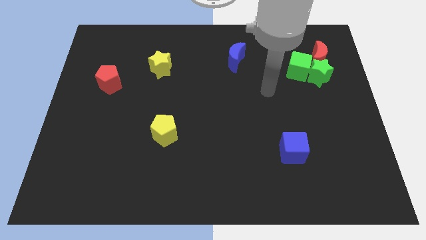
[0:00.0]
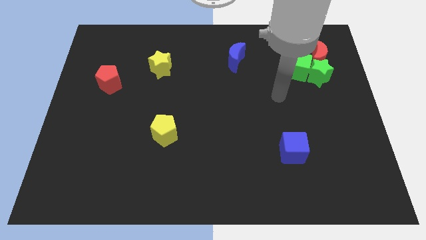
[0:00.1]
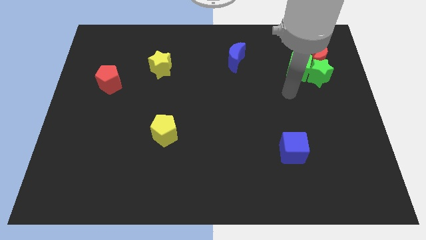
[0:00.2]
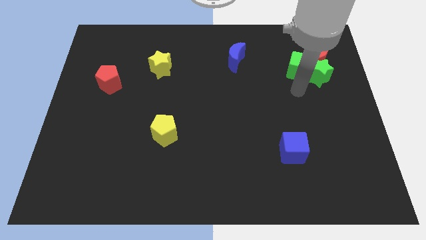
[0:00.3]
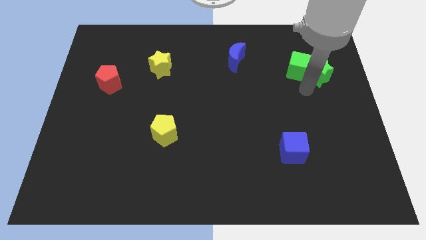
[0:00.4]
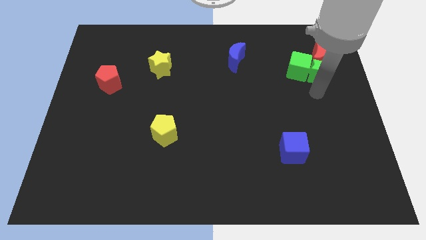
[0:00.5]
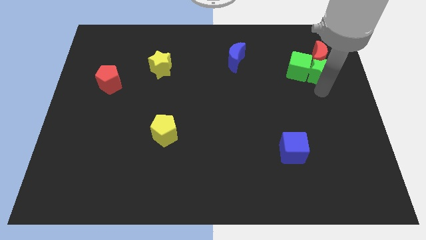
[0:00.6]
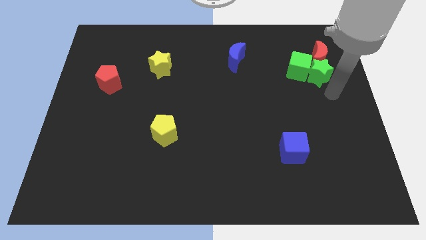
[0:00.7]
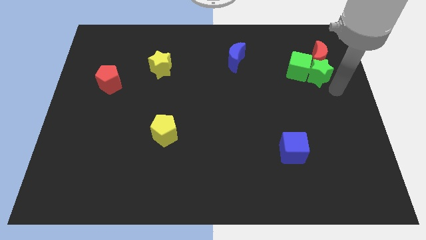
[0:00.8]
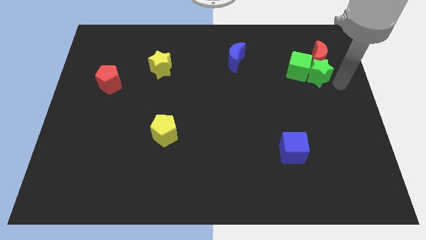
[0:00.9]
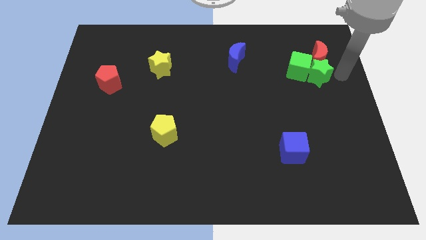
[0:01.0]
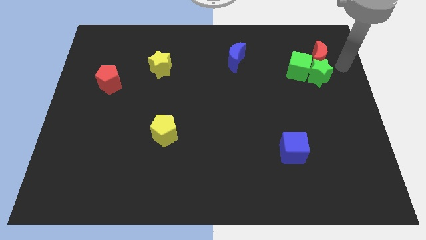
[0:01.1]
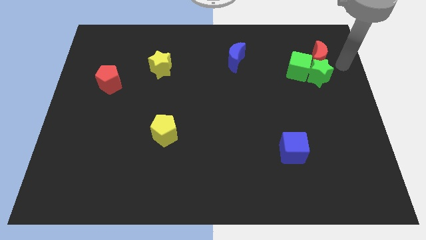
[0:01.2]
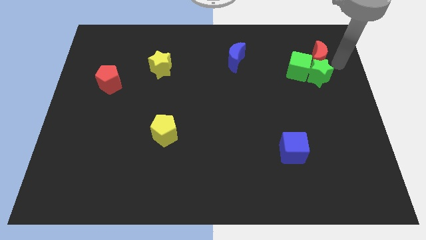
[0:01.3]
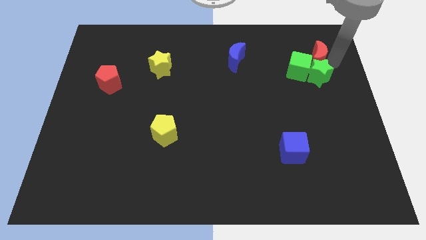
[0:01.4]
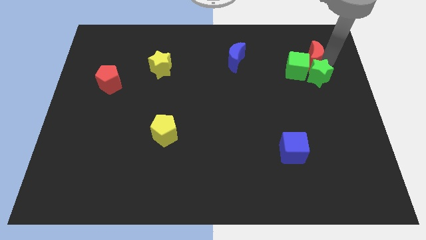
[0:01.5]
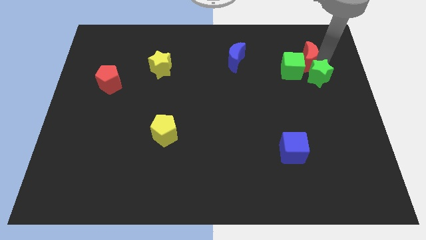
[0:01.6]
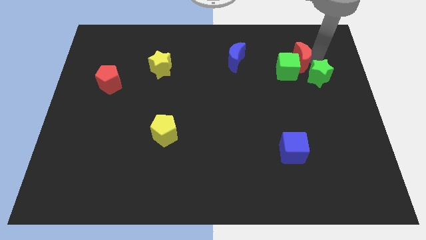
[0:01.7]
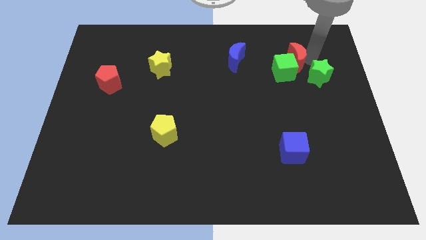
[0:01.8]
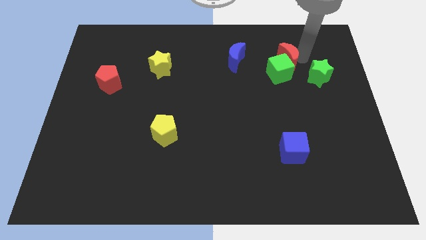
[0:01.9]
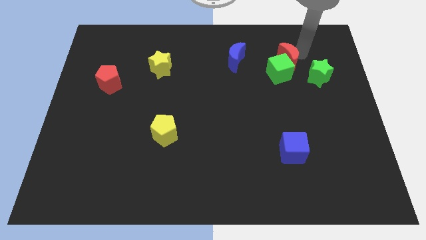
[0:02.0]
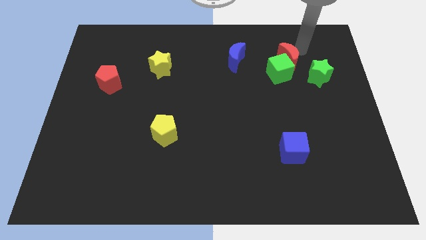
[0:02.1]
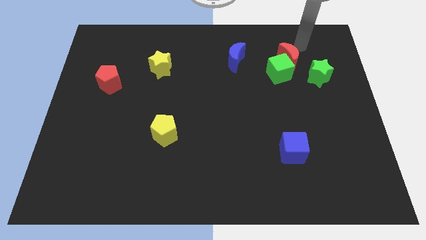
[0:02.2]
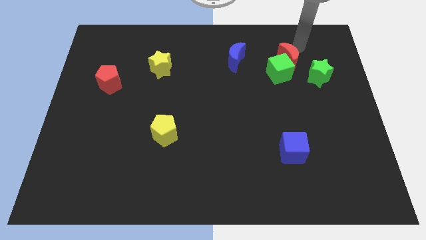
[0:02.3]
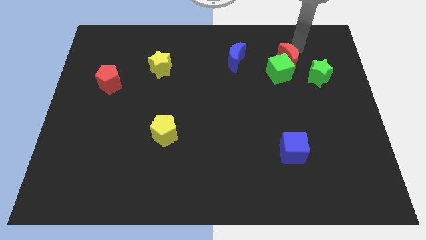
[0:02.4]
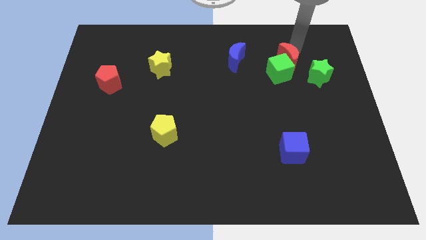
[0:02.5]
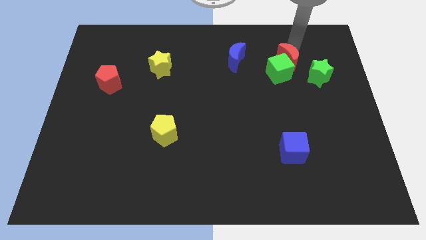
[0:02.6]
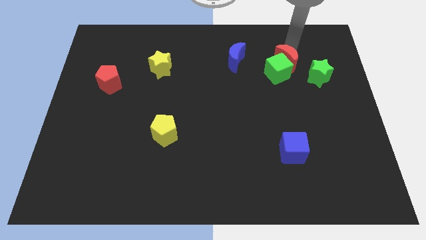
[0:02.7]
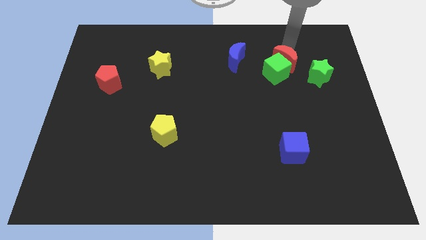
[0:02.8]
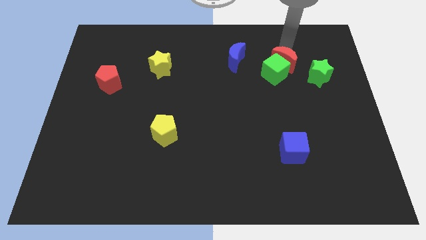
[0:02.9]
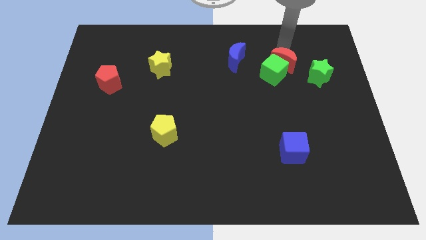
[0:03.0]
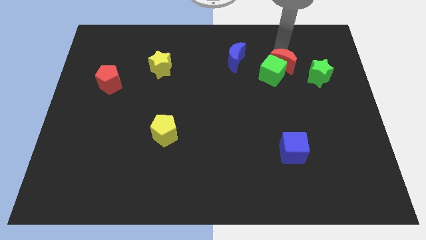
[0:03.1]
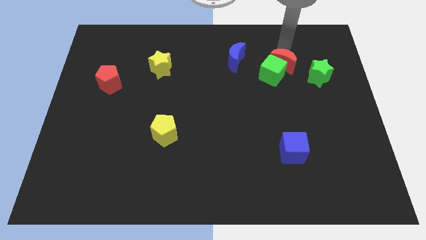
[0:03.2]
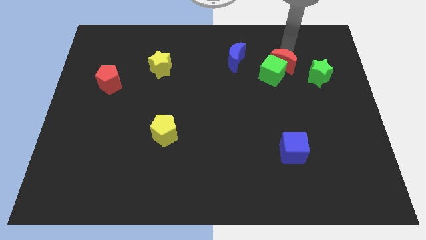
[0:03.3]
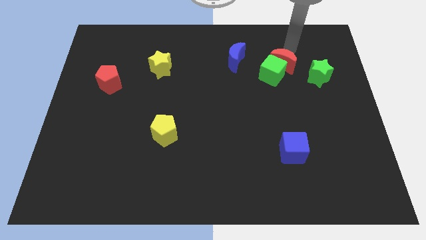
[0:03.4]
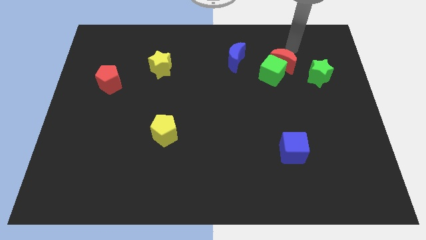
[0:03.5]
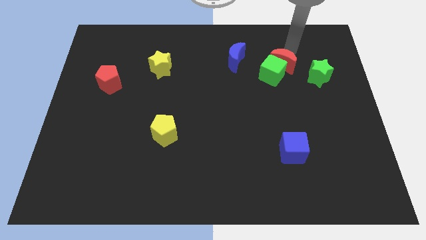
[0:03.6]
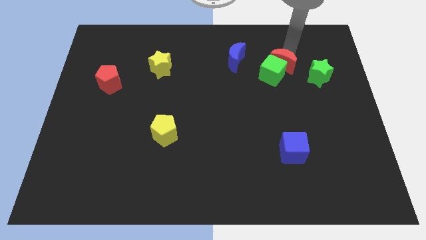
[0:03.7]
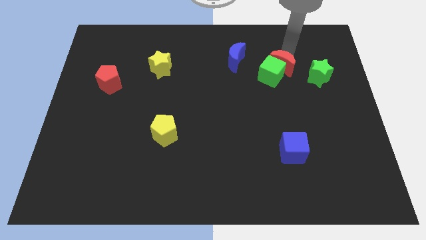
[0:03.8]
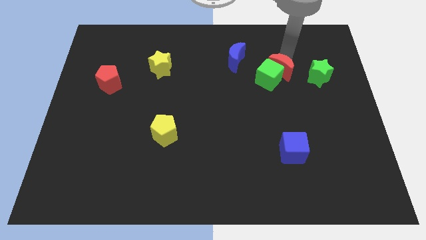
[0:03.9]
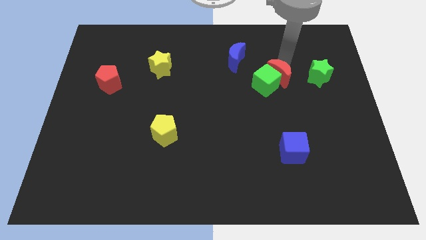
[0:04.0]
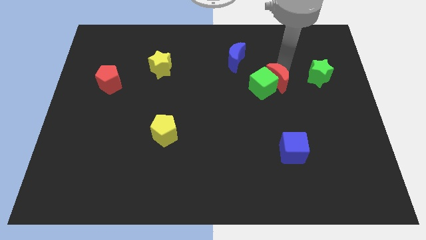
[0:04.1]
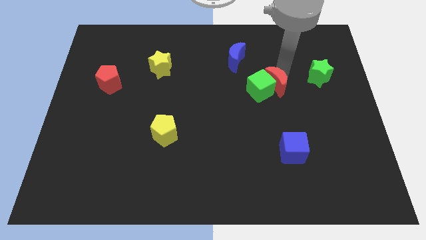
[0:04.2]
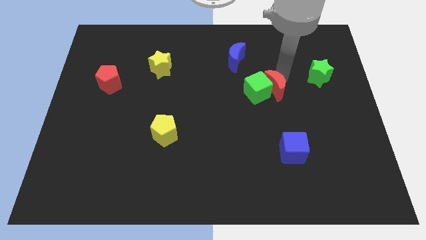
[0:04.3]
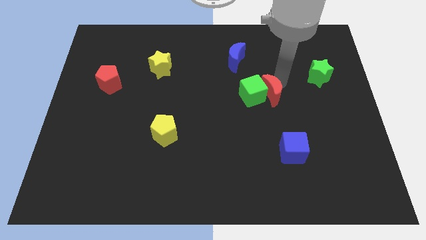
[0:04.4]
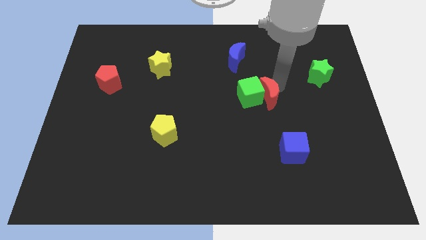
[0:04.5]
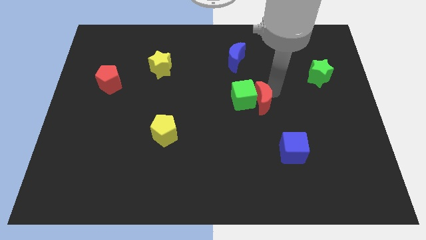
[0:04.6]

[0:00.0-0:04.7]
move the red moon diagonally down and to the left

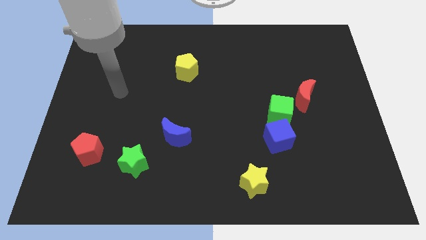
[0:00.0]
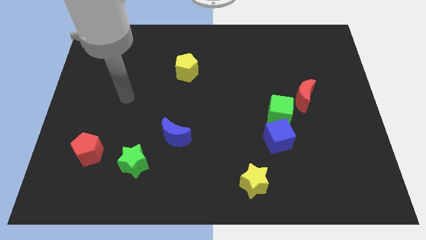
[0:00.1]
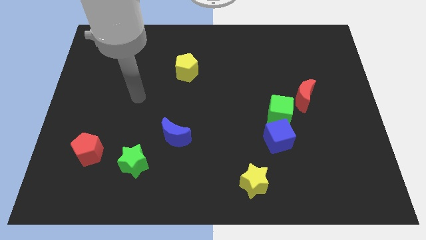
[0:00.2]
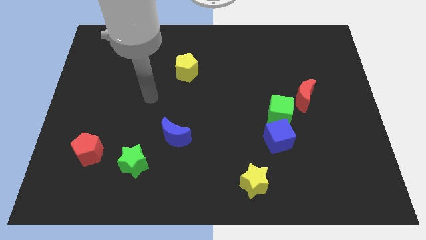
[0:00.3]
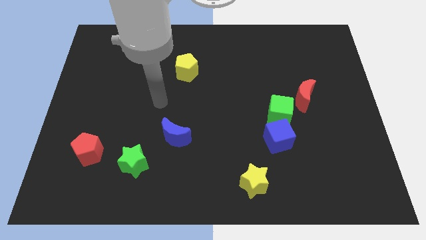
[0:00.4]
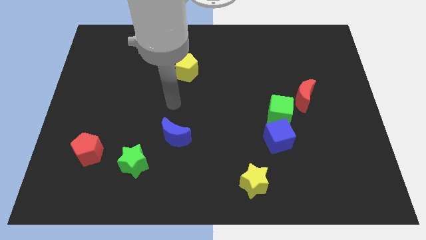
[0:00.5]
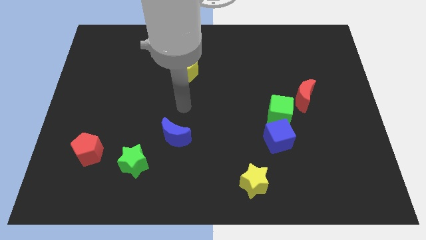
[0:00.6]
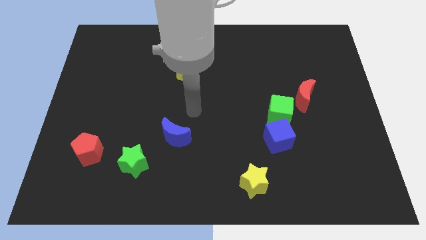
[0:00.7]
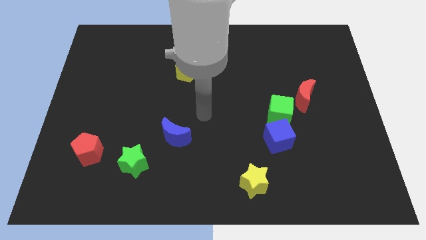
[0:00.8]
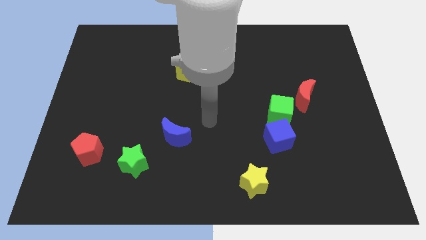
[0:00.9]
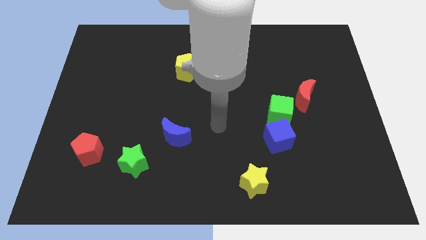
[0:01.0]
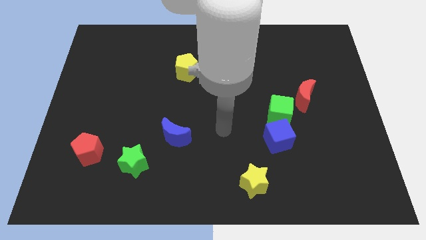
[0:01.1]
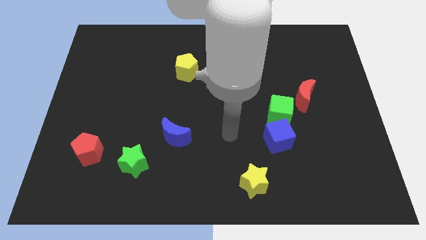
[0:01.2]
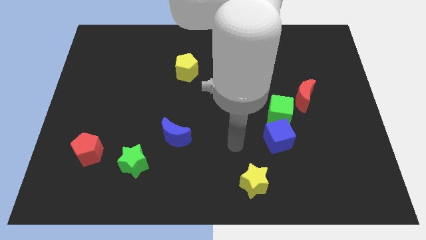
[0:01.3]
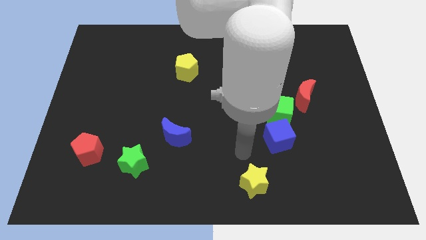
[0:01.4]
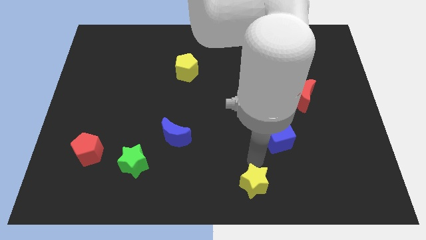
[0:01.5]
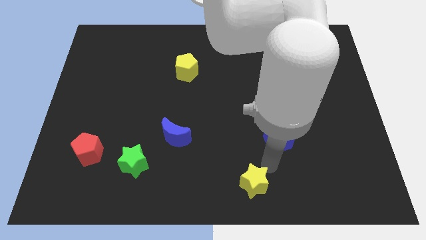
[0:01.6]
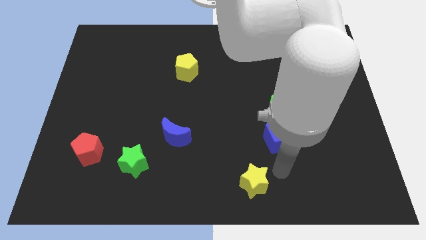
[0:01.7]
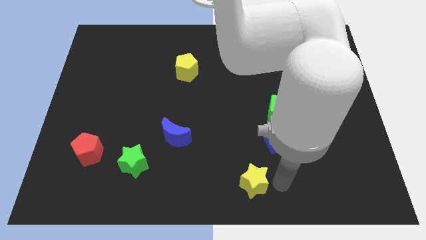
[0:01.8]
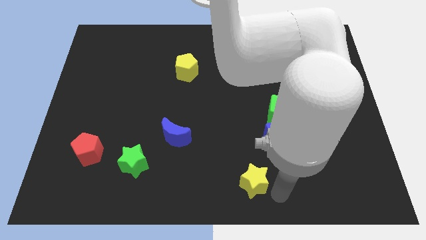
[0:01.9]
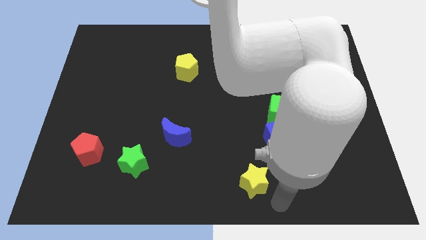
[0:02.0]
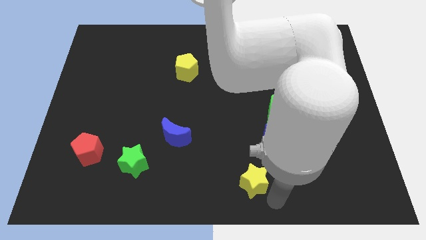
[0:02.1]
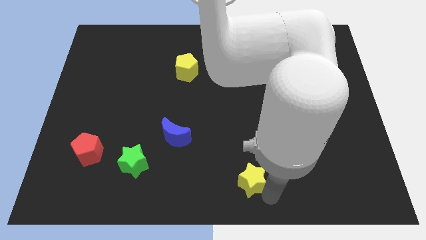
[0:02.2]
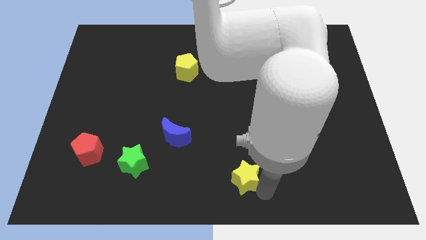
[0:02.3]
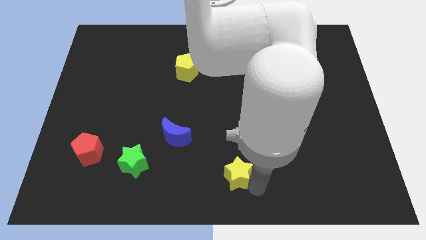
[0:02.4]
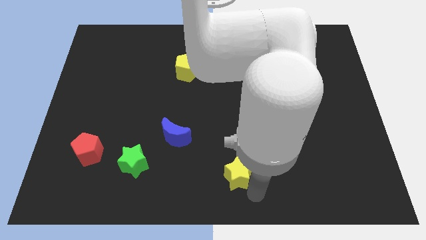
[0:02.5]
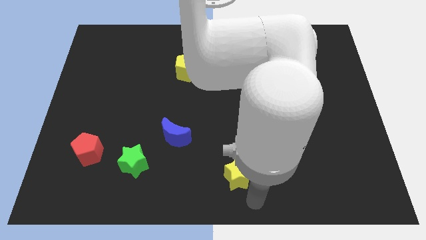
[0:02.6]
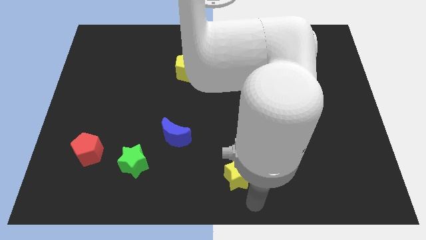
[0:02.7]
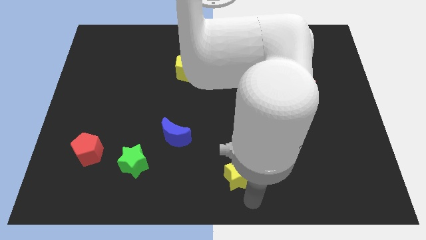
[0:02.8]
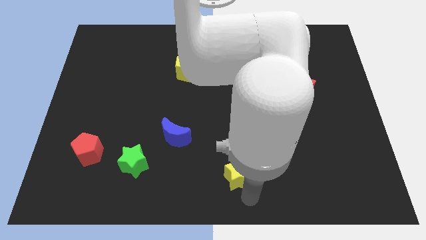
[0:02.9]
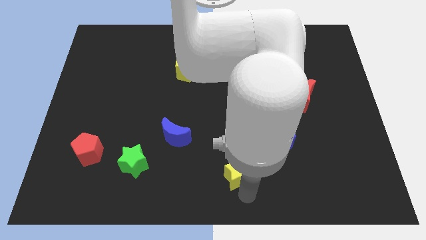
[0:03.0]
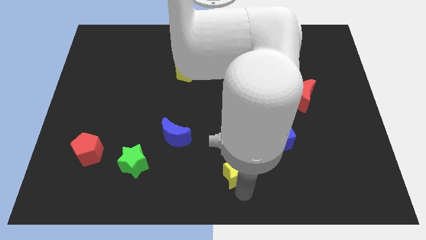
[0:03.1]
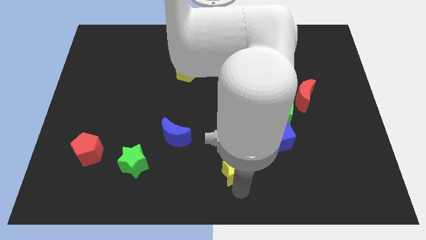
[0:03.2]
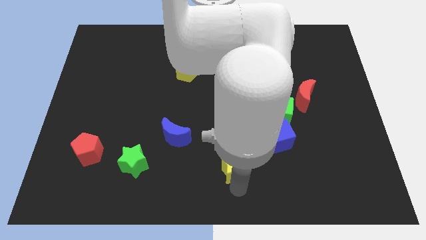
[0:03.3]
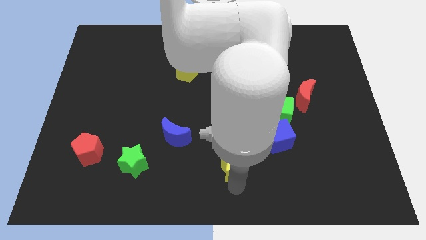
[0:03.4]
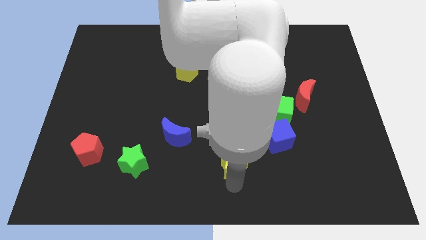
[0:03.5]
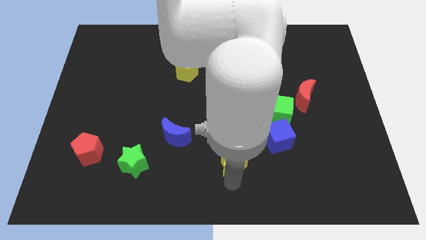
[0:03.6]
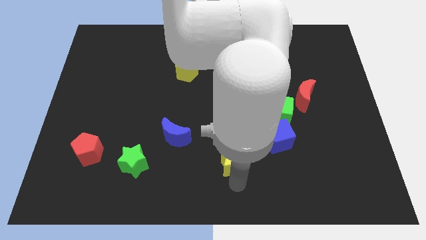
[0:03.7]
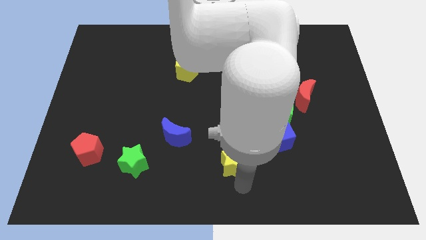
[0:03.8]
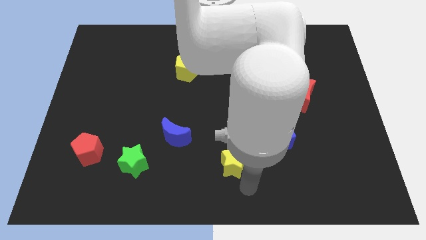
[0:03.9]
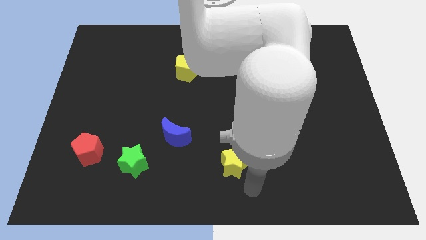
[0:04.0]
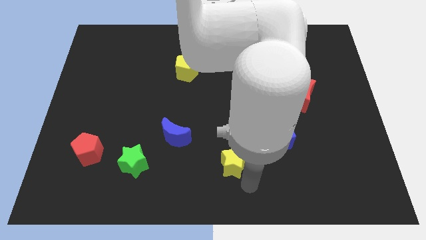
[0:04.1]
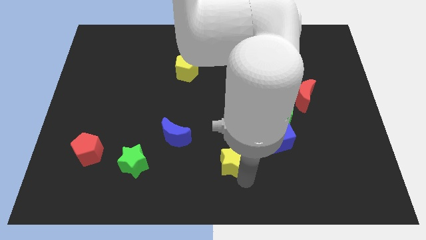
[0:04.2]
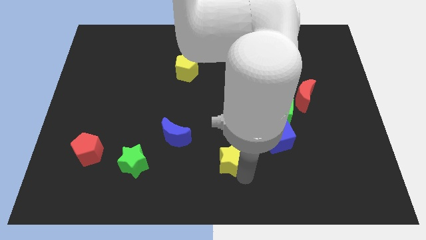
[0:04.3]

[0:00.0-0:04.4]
push the yellow star up and then to the left somewhat
